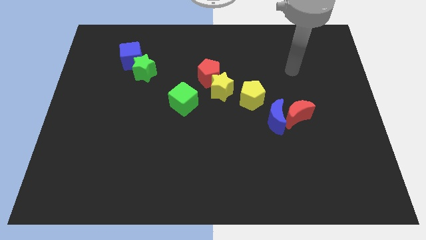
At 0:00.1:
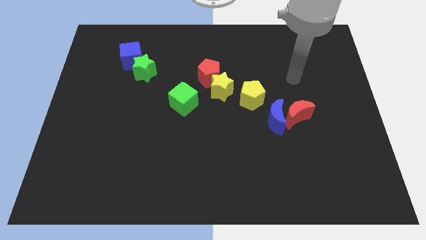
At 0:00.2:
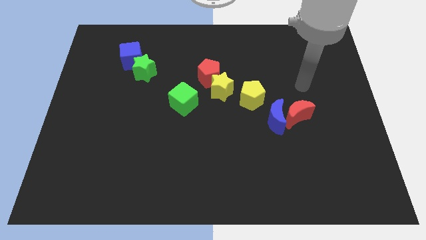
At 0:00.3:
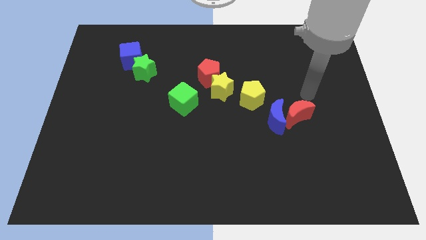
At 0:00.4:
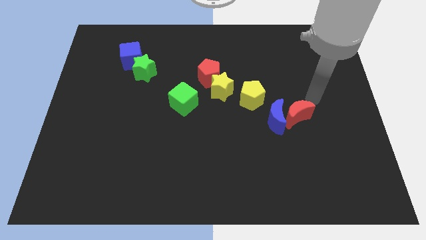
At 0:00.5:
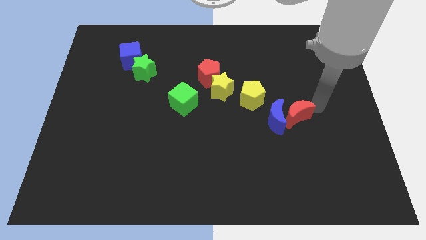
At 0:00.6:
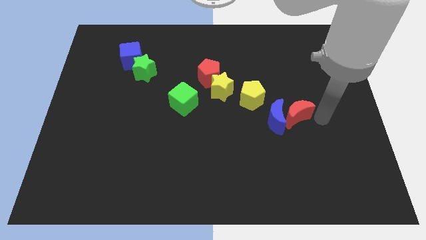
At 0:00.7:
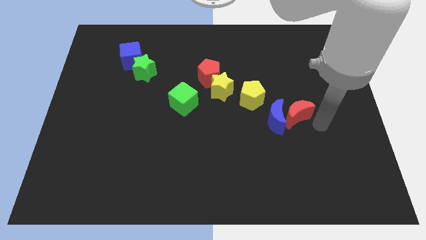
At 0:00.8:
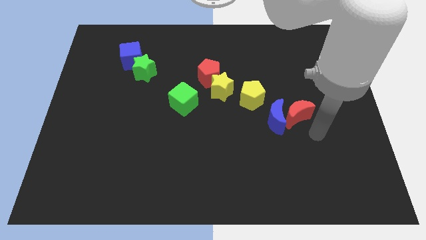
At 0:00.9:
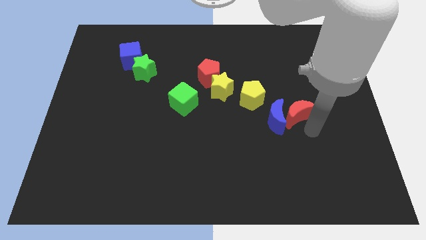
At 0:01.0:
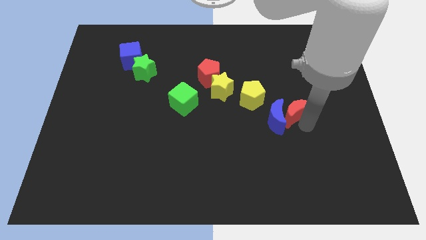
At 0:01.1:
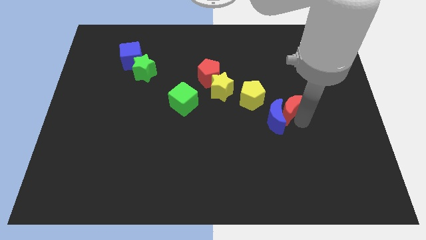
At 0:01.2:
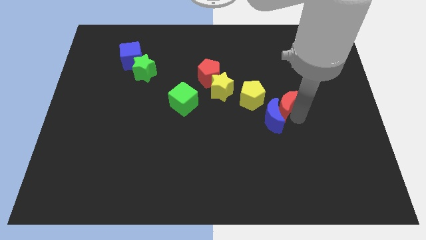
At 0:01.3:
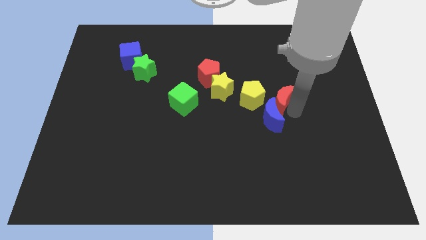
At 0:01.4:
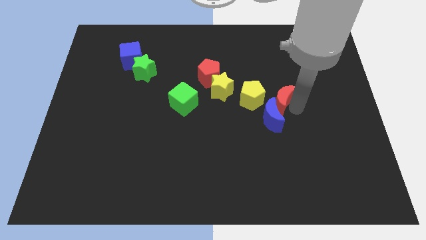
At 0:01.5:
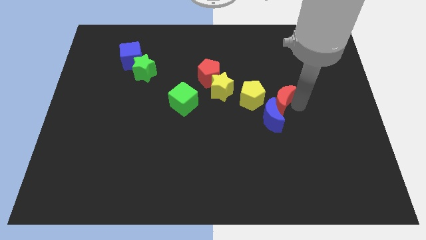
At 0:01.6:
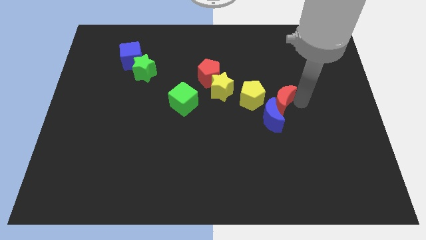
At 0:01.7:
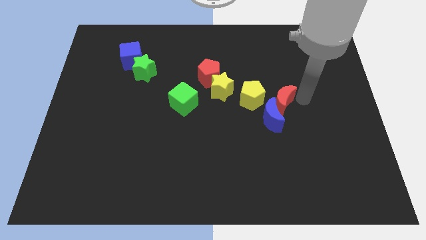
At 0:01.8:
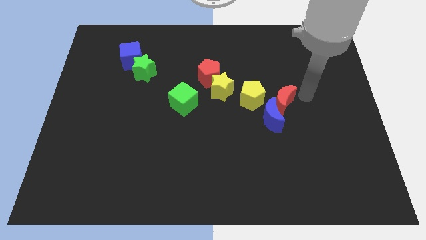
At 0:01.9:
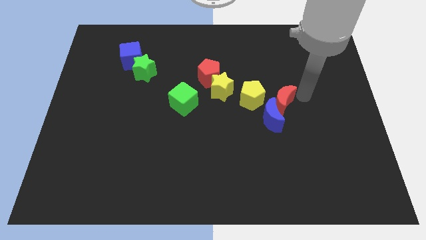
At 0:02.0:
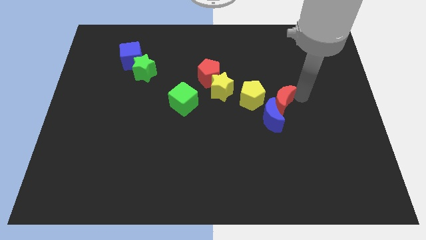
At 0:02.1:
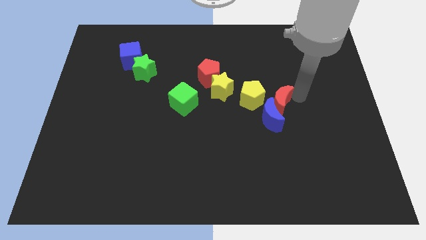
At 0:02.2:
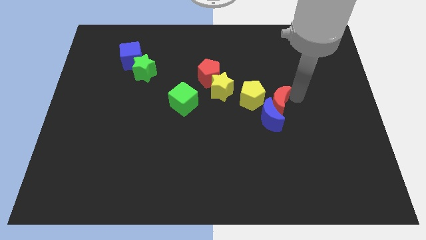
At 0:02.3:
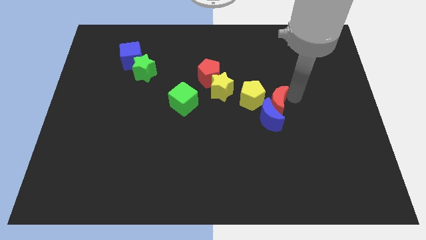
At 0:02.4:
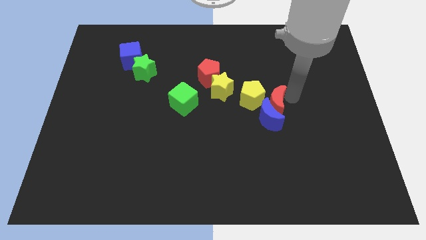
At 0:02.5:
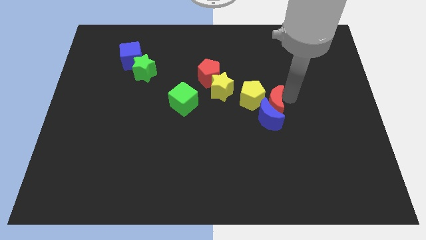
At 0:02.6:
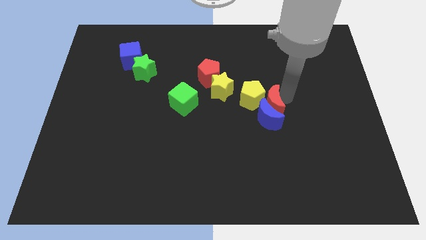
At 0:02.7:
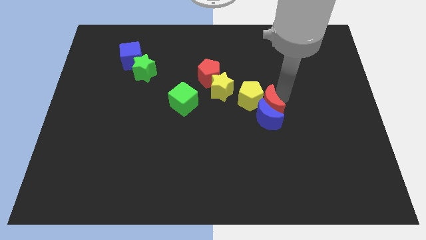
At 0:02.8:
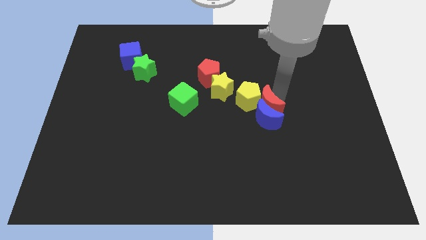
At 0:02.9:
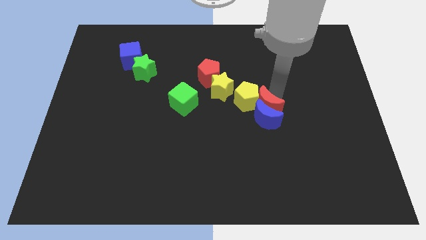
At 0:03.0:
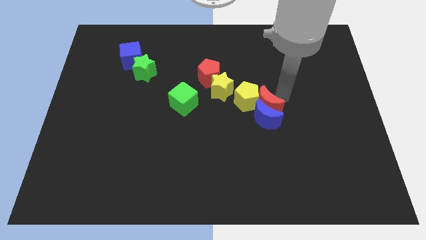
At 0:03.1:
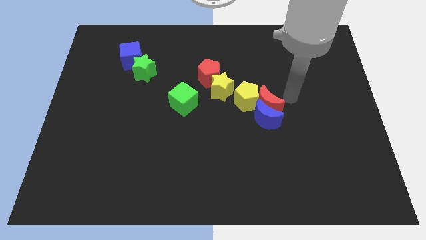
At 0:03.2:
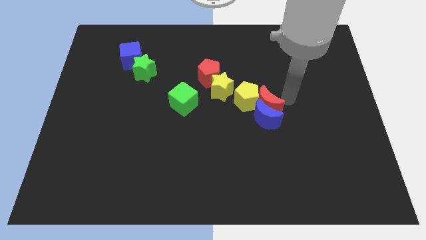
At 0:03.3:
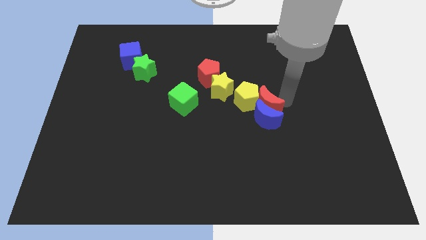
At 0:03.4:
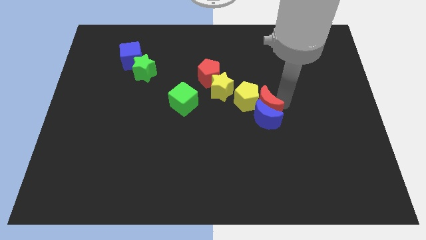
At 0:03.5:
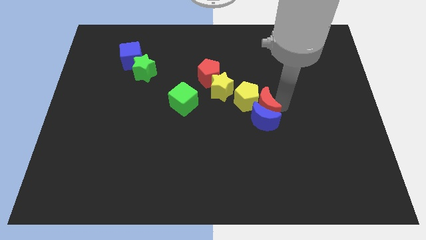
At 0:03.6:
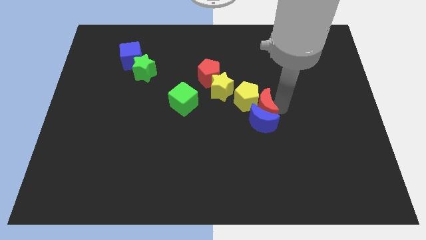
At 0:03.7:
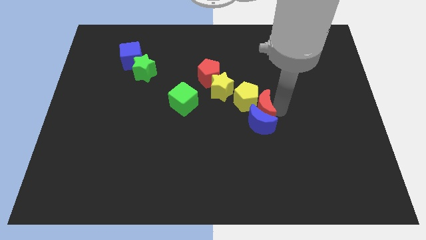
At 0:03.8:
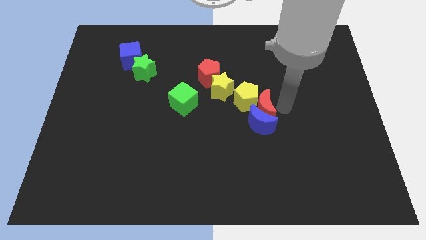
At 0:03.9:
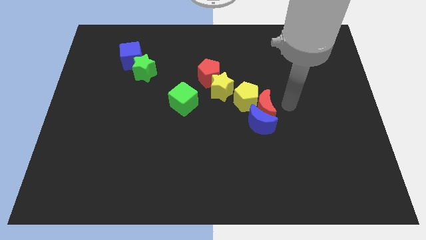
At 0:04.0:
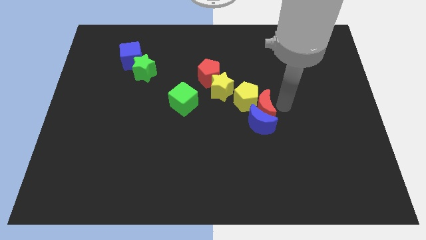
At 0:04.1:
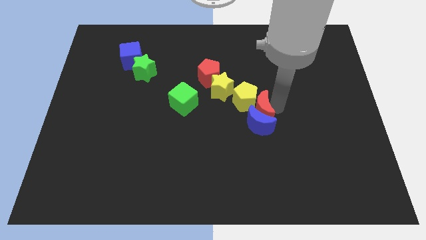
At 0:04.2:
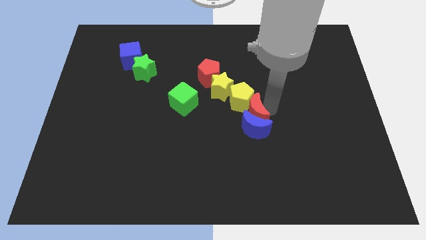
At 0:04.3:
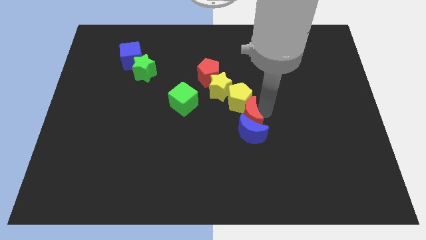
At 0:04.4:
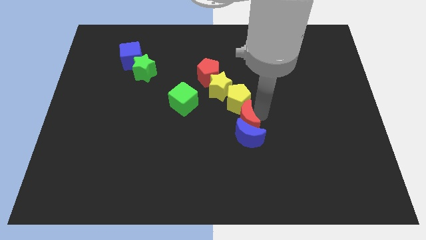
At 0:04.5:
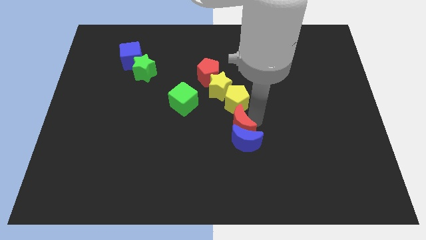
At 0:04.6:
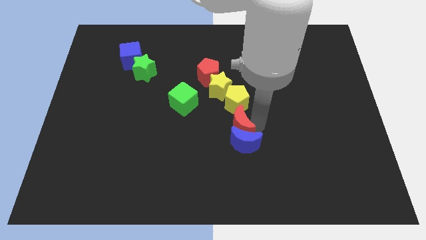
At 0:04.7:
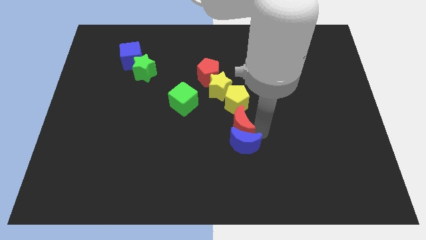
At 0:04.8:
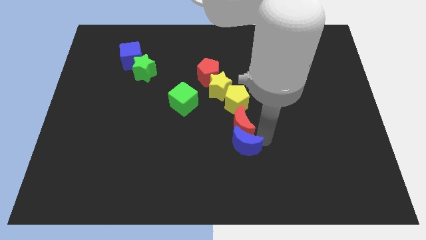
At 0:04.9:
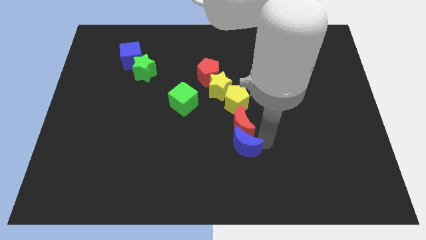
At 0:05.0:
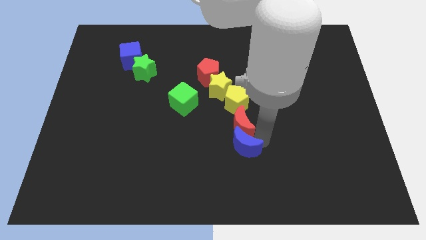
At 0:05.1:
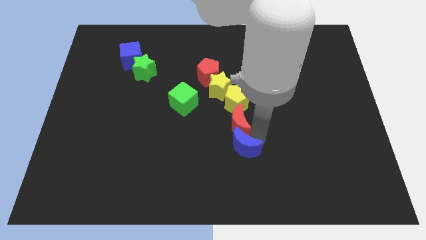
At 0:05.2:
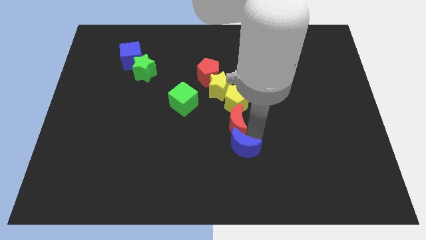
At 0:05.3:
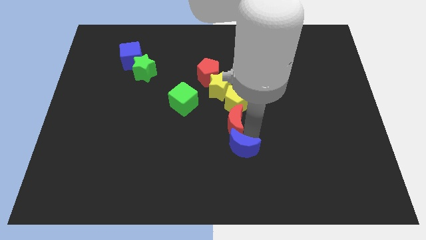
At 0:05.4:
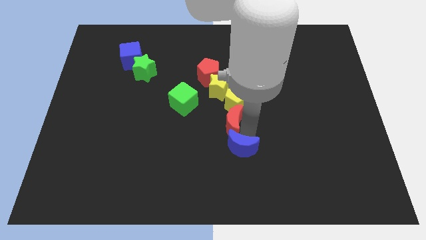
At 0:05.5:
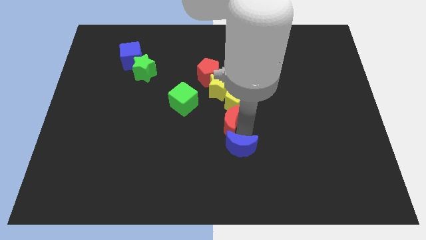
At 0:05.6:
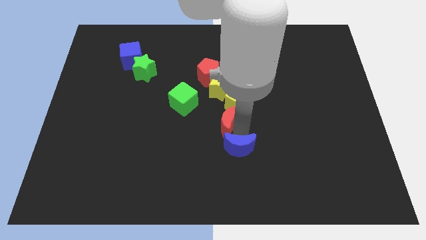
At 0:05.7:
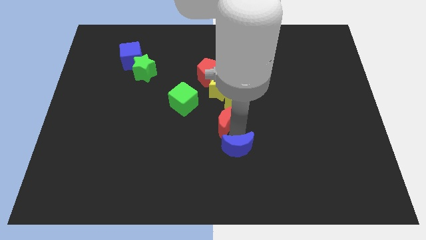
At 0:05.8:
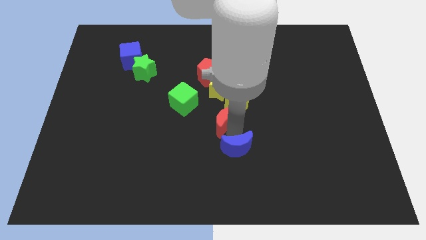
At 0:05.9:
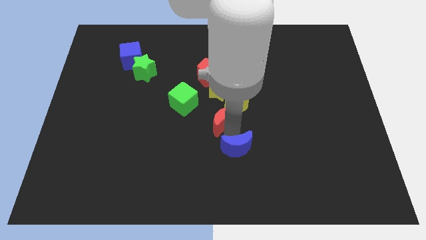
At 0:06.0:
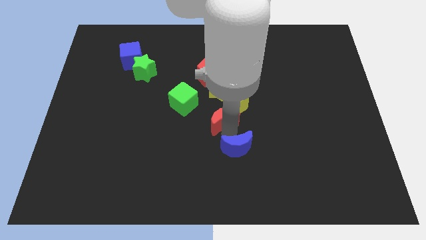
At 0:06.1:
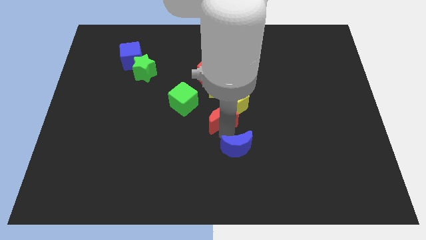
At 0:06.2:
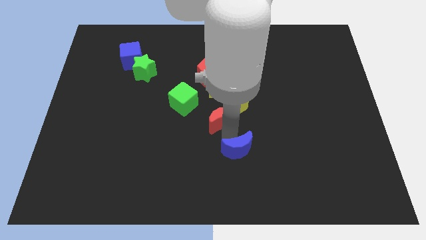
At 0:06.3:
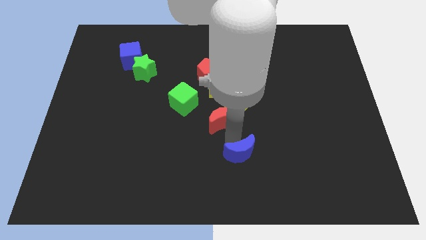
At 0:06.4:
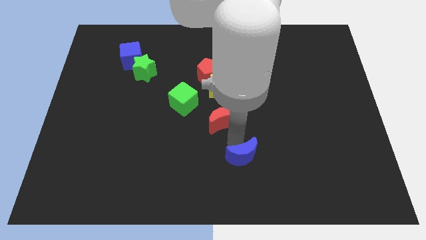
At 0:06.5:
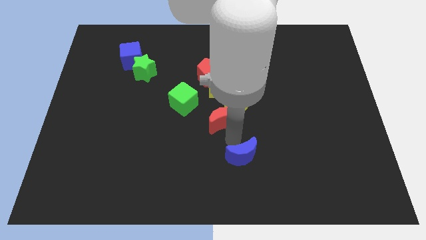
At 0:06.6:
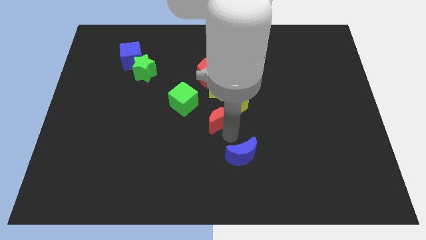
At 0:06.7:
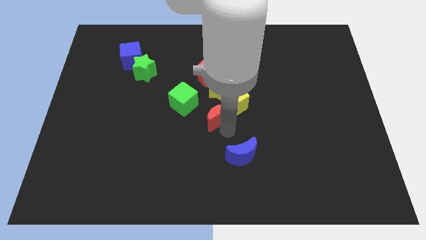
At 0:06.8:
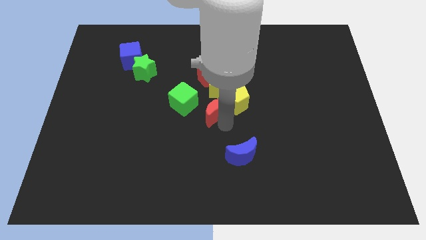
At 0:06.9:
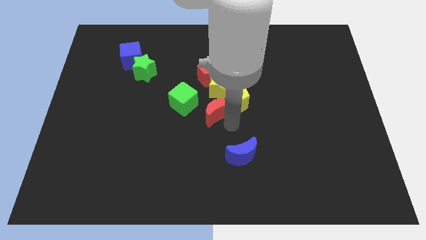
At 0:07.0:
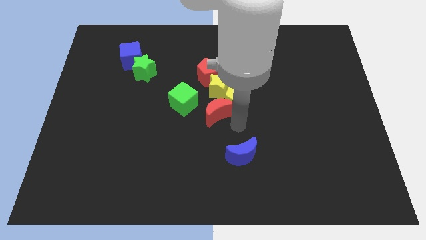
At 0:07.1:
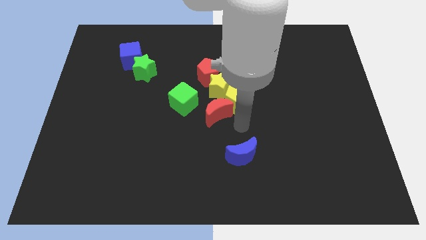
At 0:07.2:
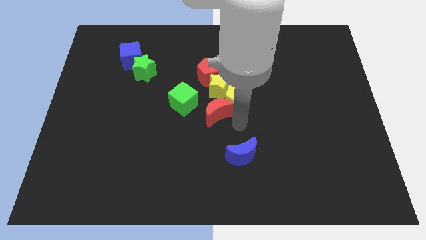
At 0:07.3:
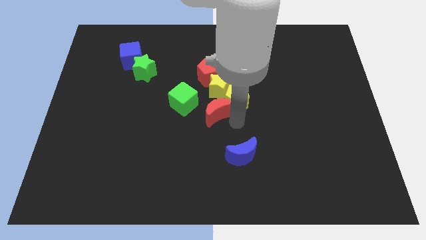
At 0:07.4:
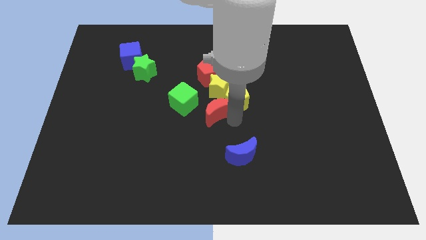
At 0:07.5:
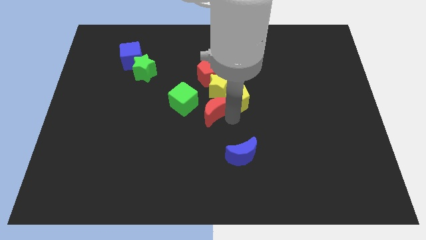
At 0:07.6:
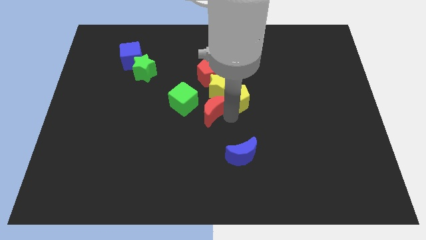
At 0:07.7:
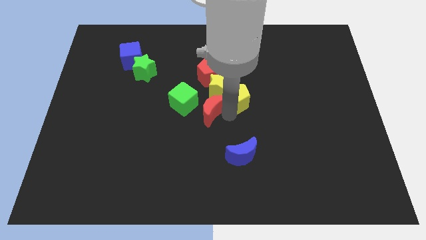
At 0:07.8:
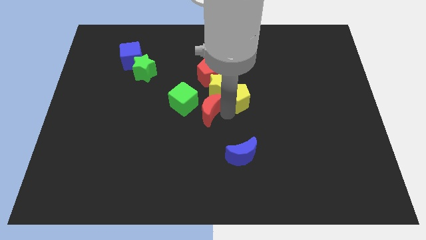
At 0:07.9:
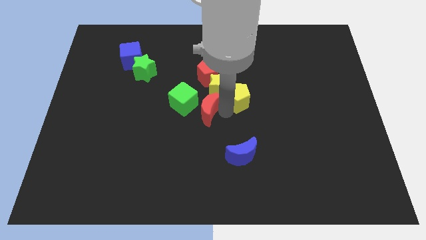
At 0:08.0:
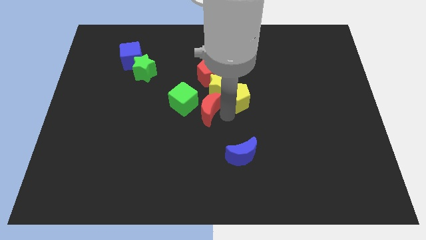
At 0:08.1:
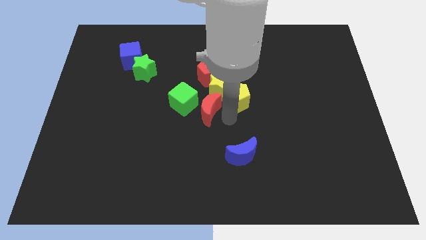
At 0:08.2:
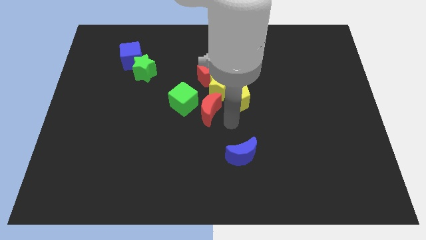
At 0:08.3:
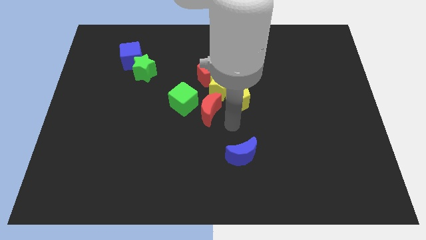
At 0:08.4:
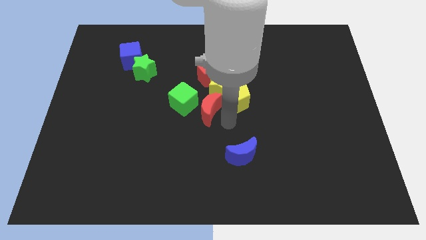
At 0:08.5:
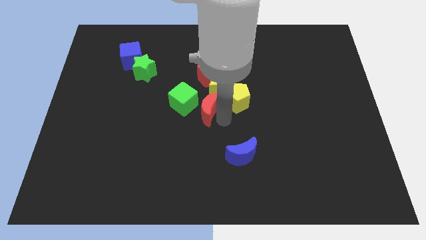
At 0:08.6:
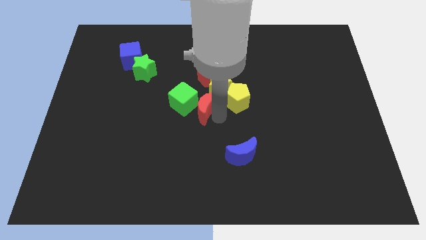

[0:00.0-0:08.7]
slide the red moon close to the green cube
